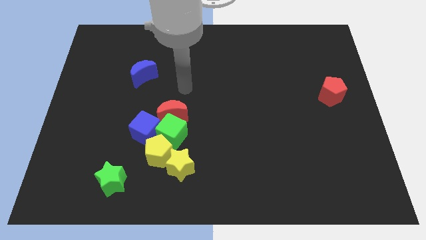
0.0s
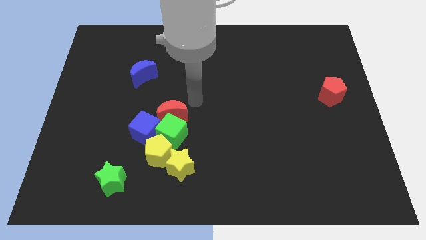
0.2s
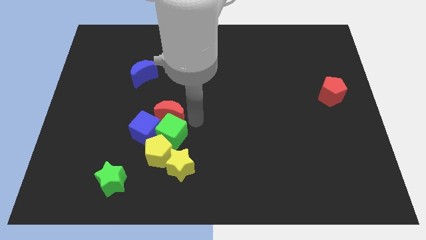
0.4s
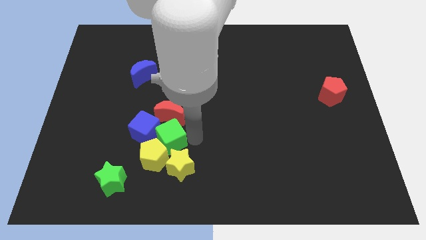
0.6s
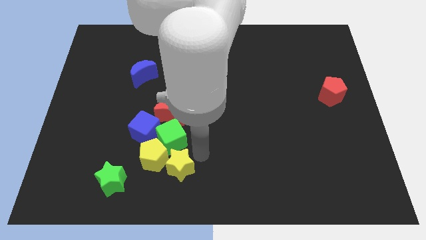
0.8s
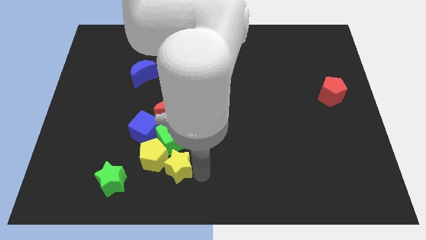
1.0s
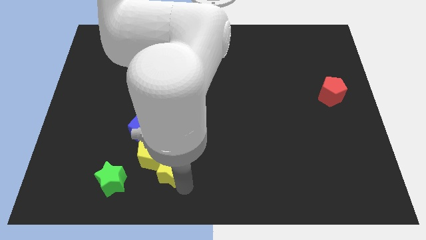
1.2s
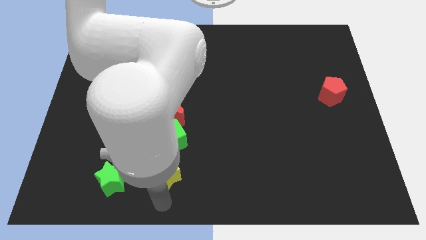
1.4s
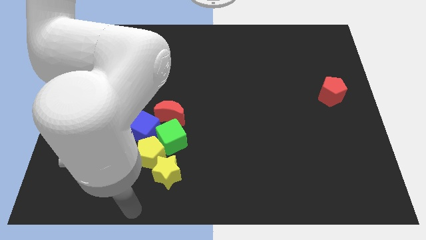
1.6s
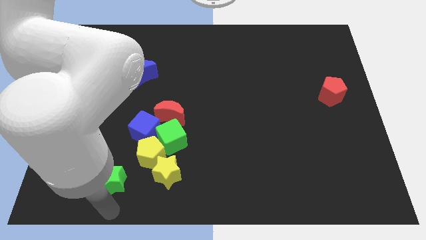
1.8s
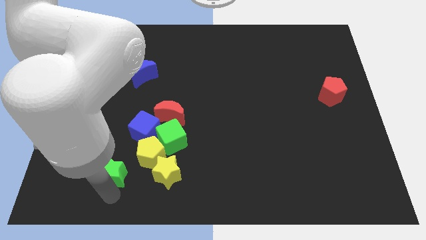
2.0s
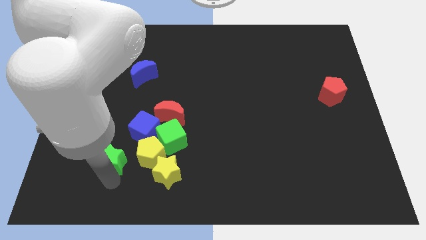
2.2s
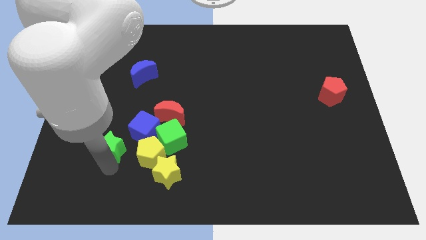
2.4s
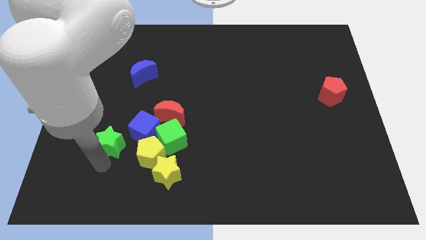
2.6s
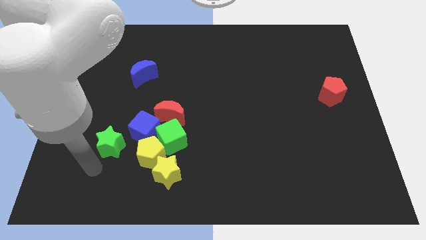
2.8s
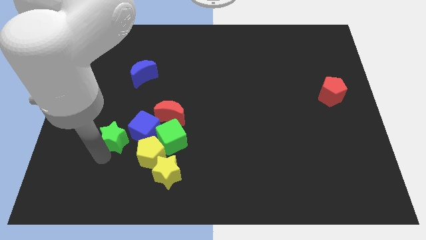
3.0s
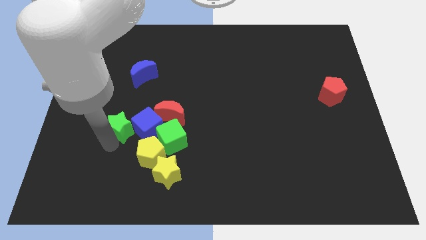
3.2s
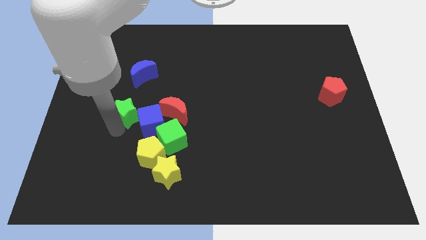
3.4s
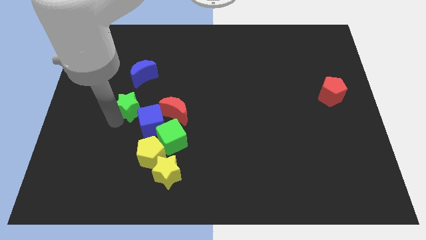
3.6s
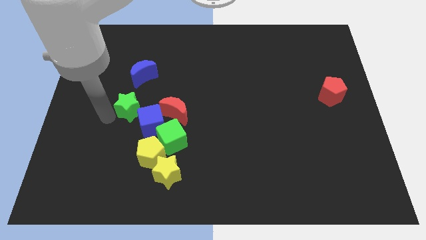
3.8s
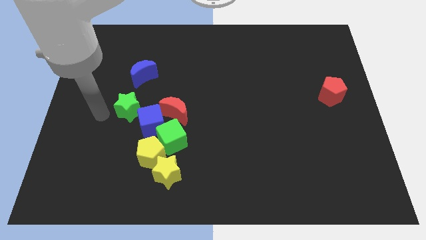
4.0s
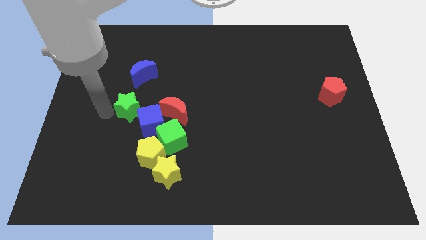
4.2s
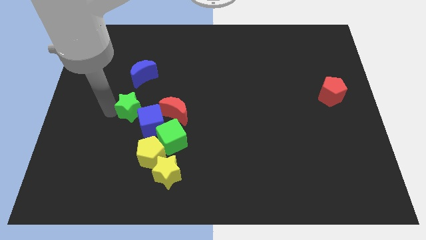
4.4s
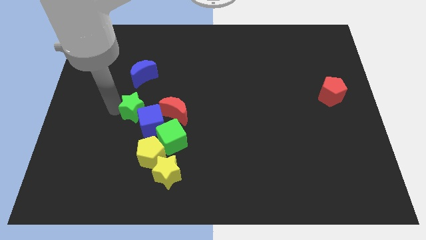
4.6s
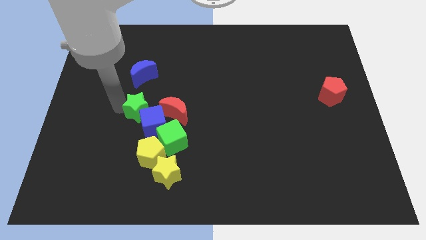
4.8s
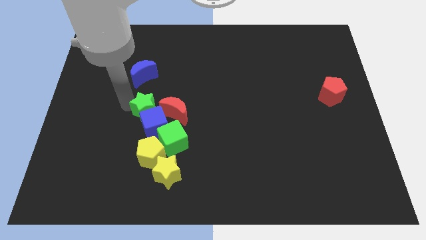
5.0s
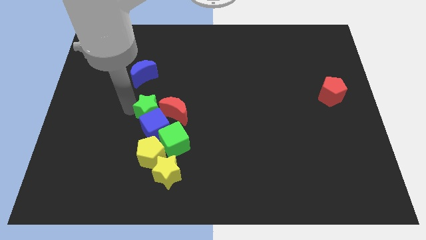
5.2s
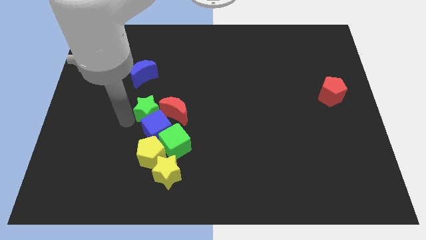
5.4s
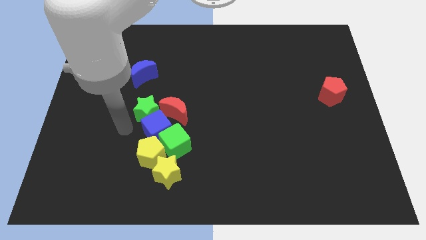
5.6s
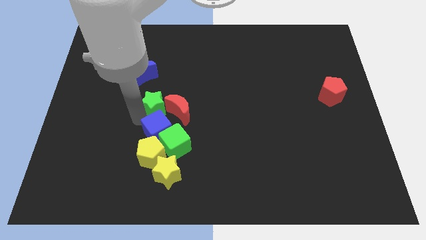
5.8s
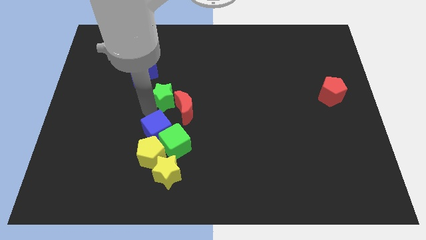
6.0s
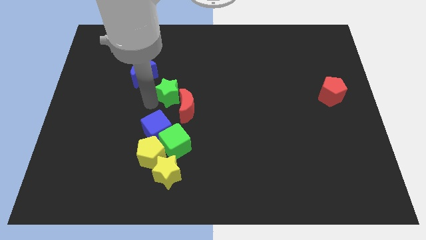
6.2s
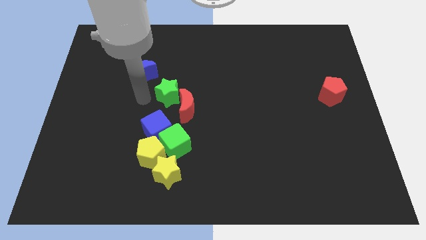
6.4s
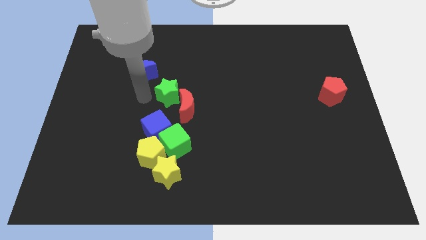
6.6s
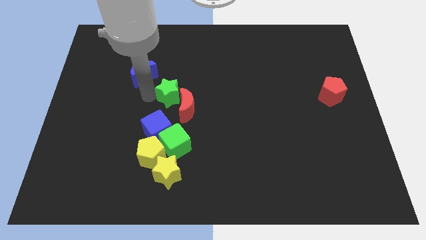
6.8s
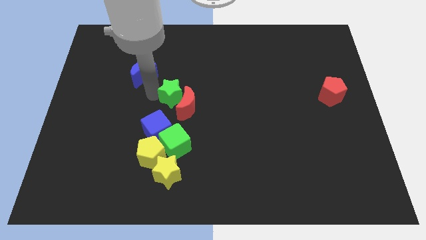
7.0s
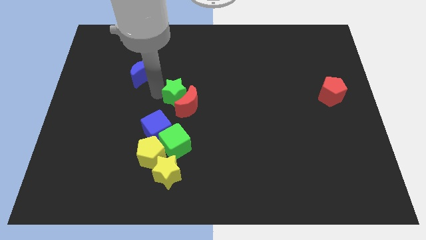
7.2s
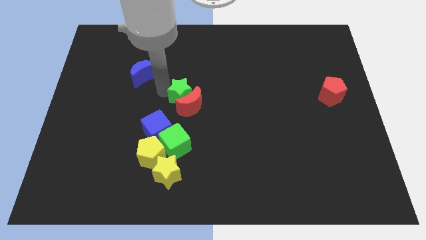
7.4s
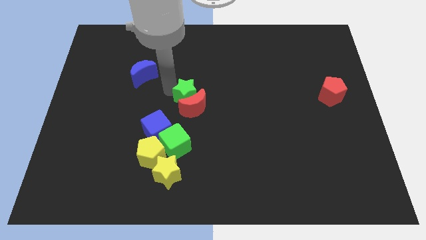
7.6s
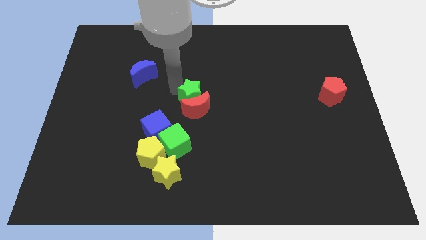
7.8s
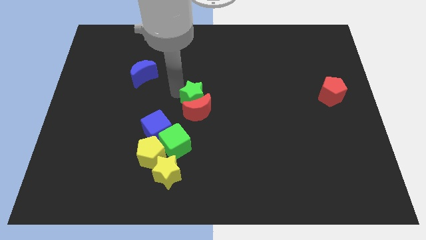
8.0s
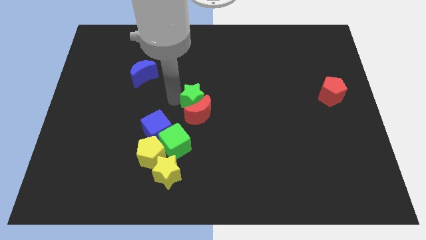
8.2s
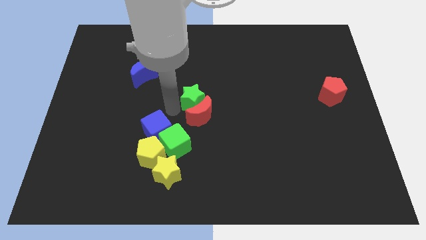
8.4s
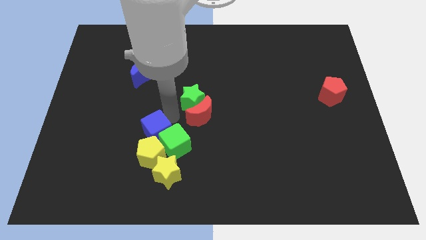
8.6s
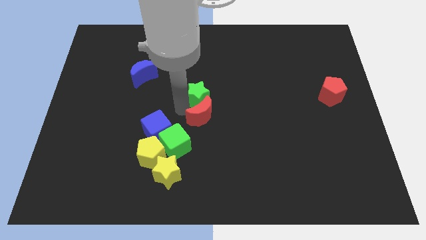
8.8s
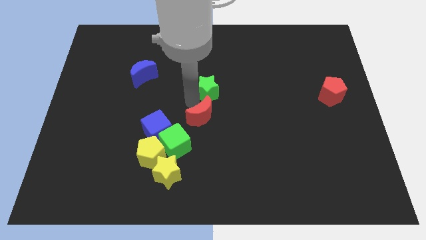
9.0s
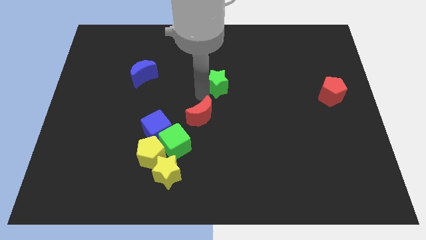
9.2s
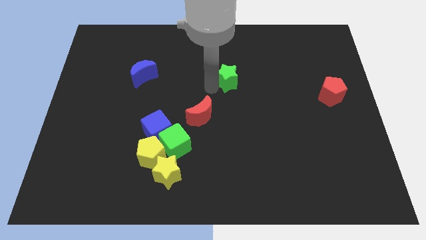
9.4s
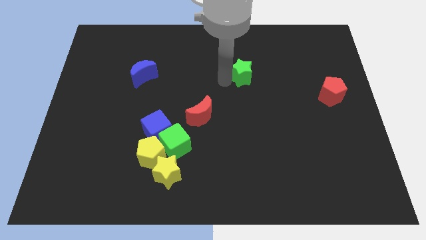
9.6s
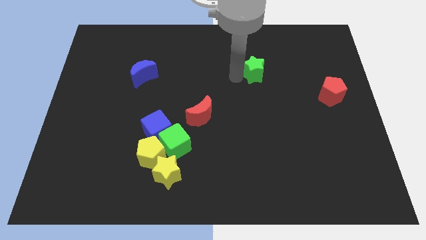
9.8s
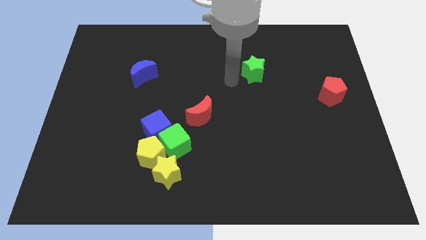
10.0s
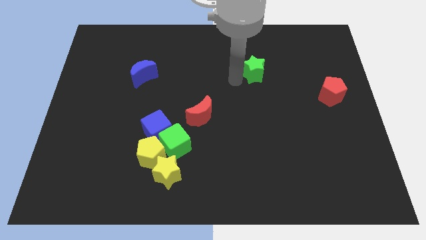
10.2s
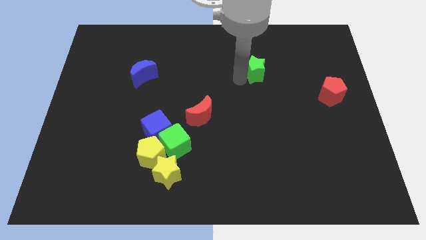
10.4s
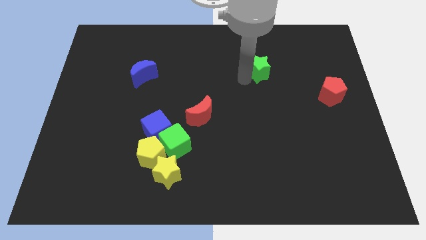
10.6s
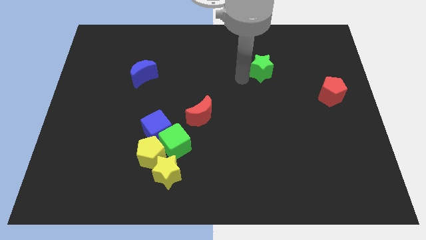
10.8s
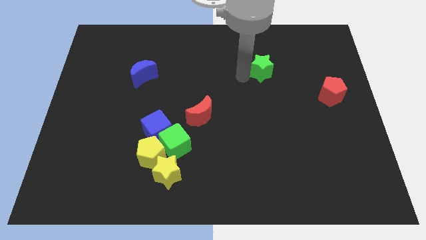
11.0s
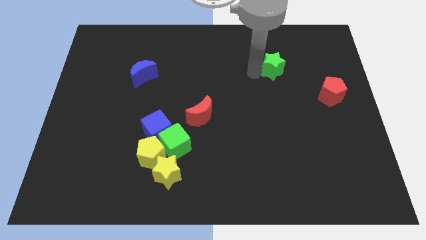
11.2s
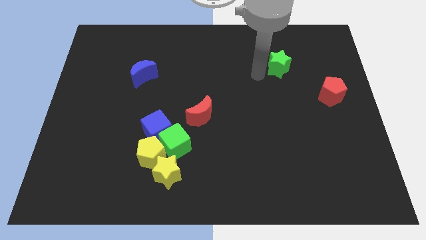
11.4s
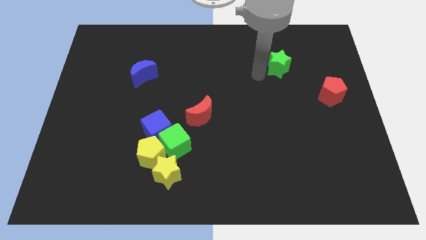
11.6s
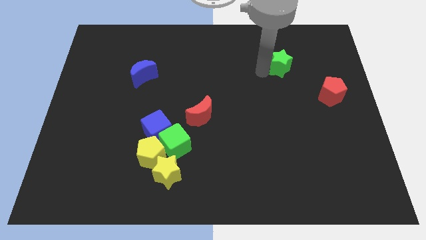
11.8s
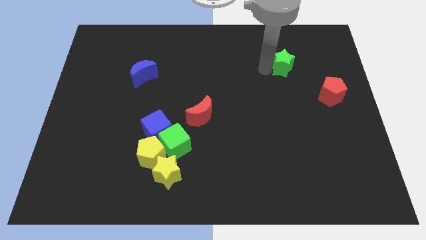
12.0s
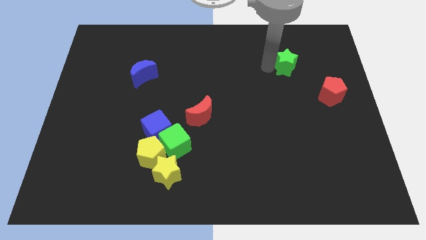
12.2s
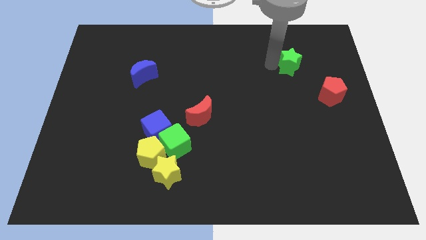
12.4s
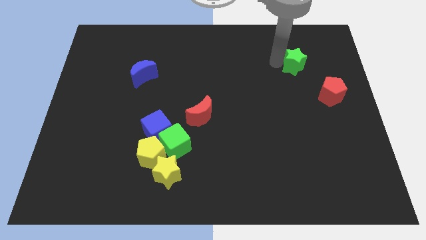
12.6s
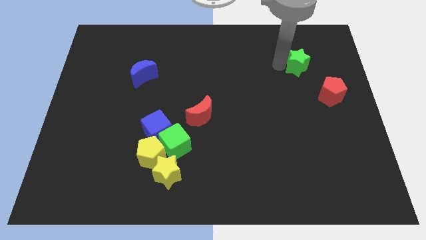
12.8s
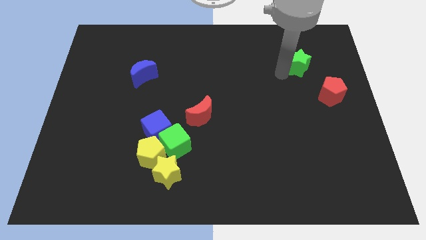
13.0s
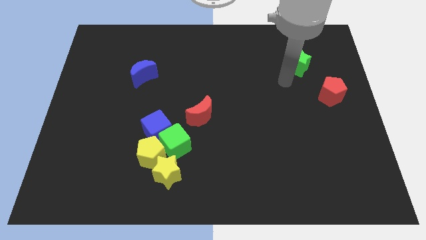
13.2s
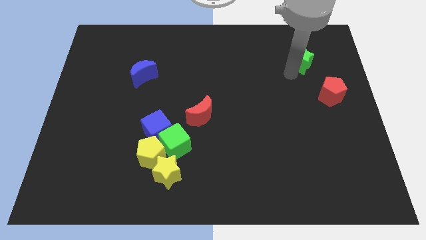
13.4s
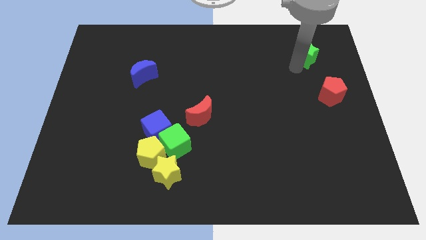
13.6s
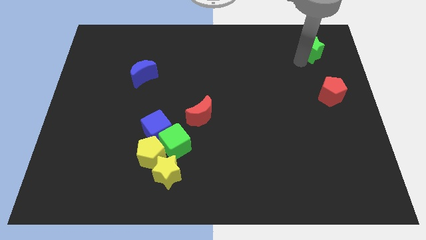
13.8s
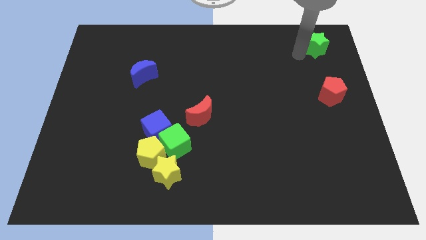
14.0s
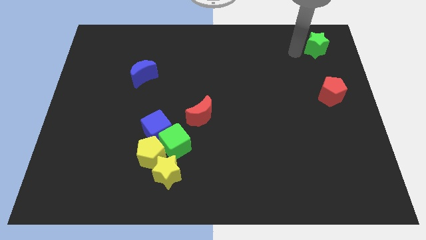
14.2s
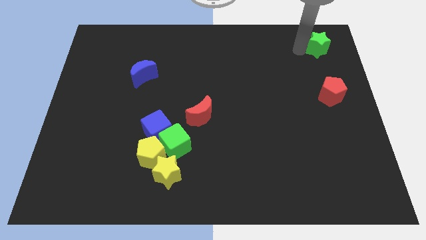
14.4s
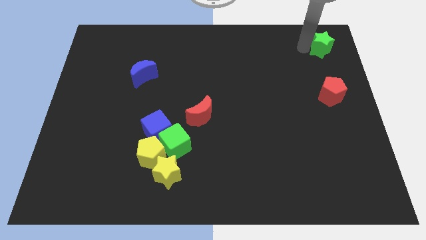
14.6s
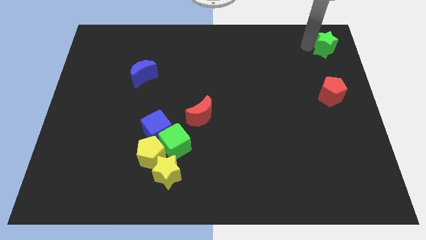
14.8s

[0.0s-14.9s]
slide the green star to the top right corner
